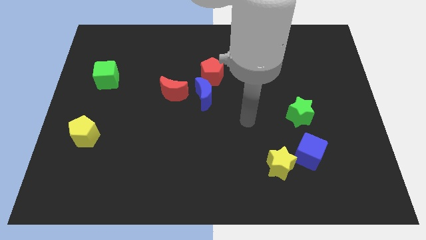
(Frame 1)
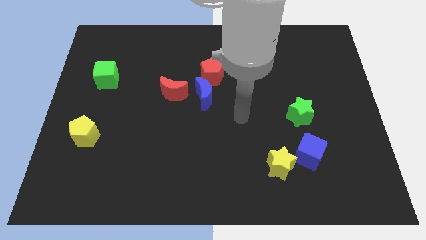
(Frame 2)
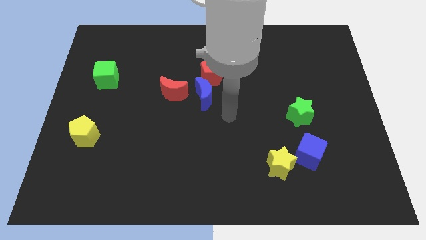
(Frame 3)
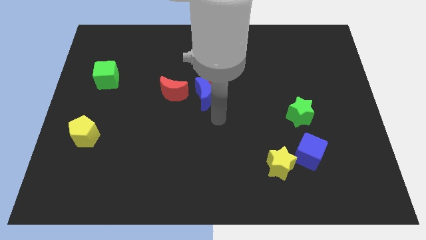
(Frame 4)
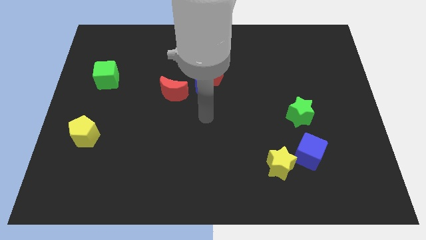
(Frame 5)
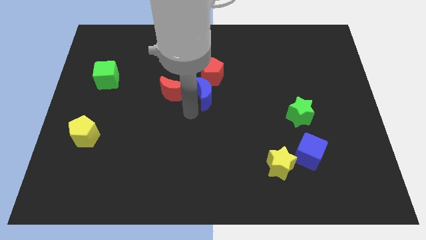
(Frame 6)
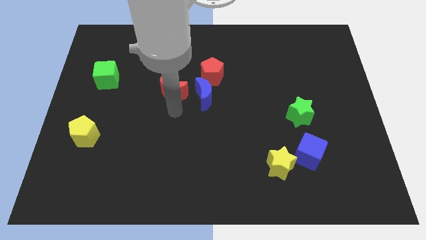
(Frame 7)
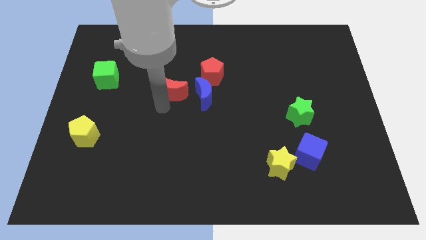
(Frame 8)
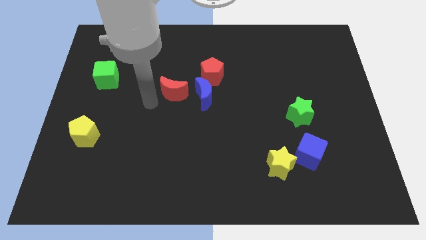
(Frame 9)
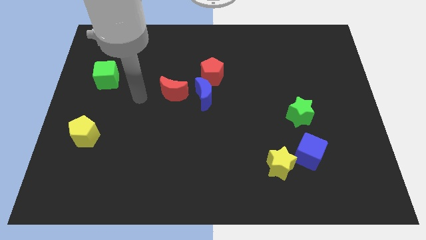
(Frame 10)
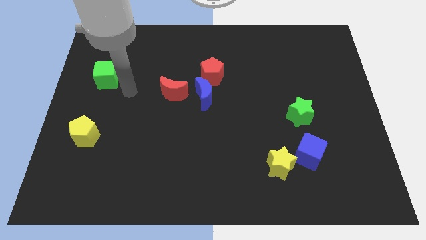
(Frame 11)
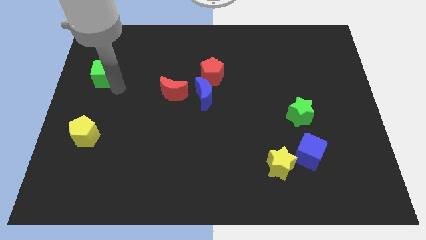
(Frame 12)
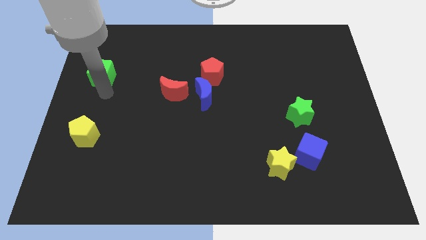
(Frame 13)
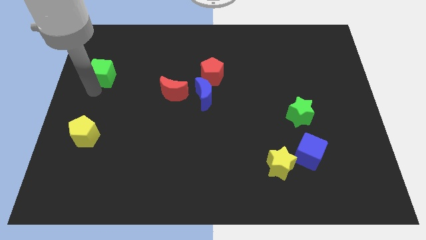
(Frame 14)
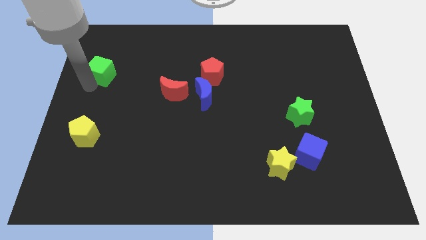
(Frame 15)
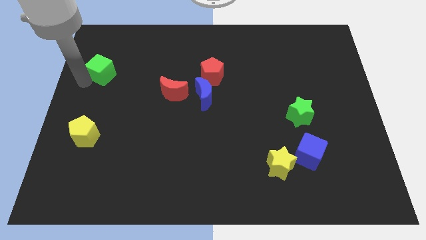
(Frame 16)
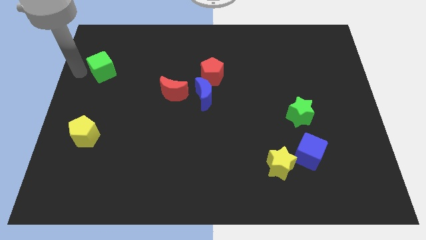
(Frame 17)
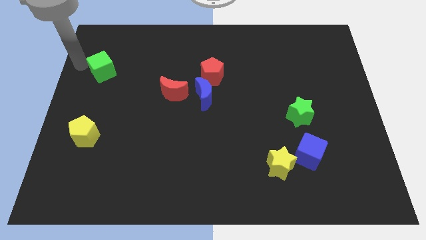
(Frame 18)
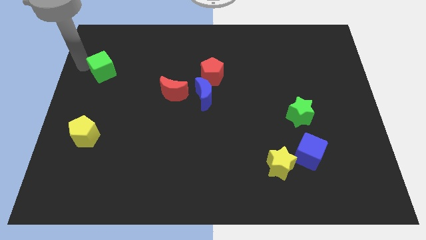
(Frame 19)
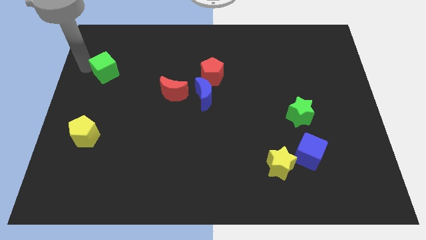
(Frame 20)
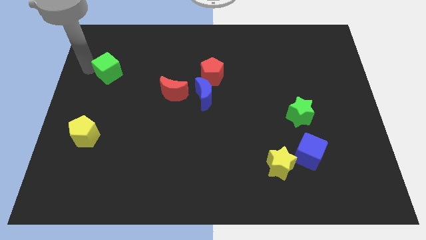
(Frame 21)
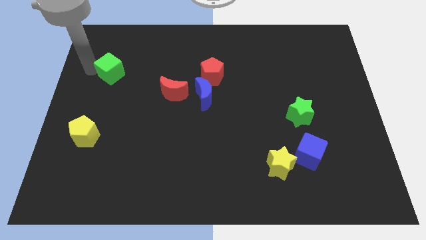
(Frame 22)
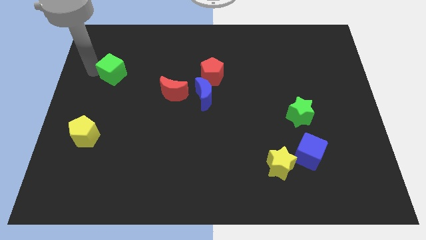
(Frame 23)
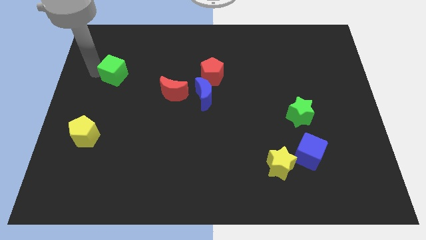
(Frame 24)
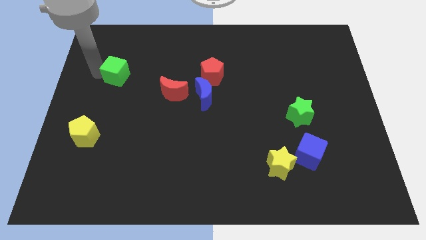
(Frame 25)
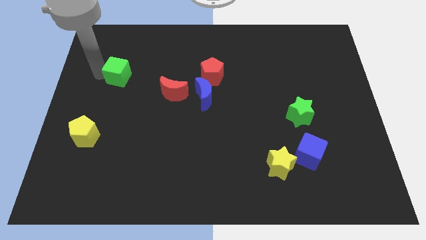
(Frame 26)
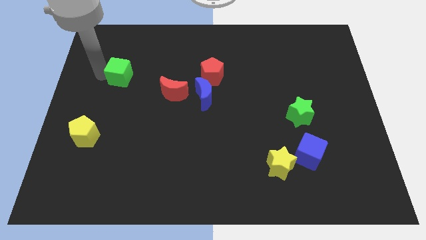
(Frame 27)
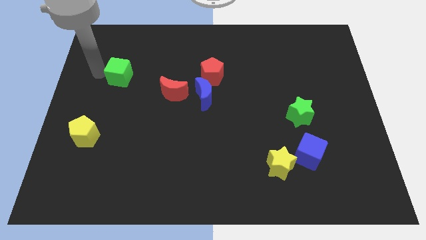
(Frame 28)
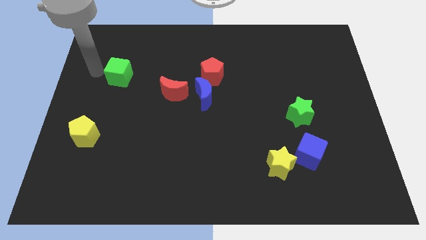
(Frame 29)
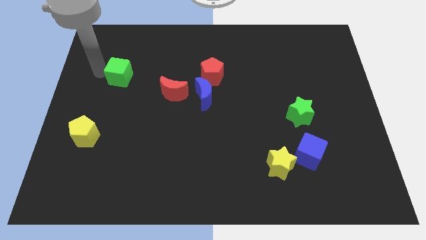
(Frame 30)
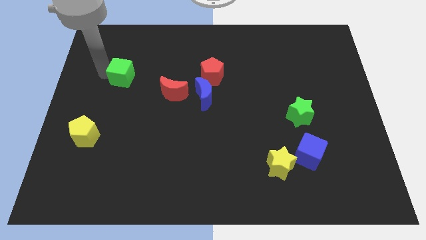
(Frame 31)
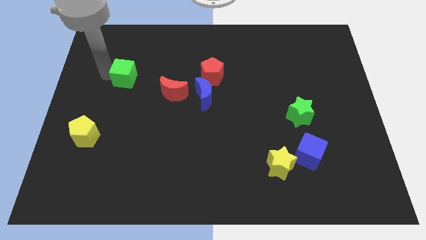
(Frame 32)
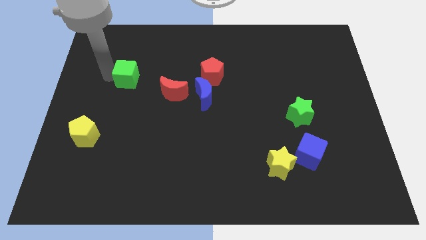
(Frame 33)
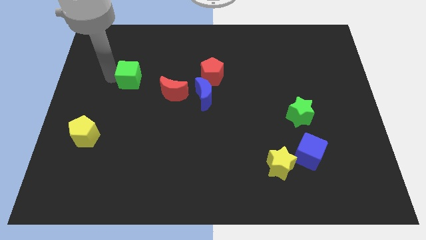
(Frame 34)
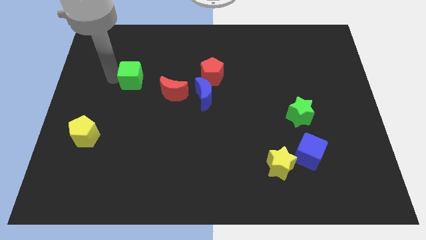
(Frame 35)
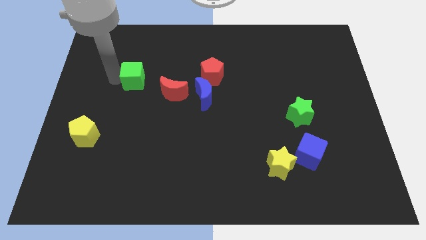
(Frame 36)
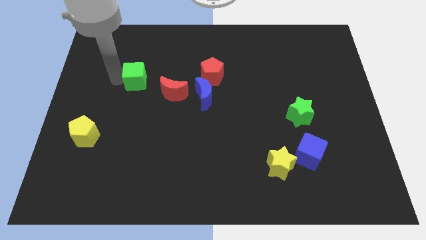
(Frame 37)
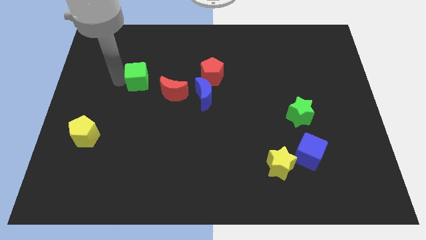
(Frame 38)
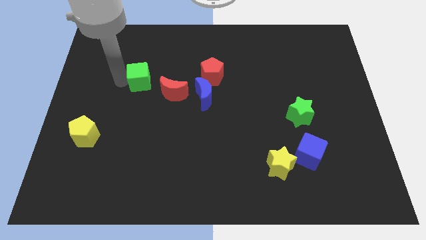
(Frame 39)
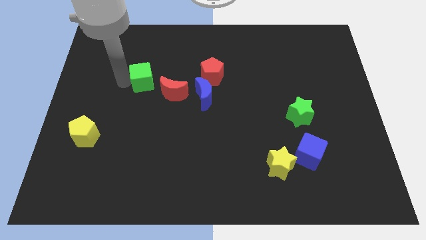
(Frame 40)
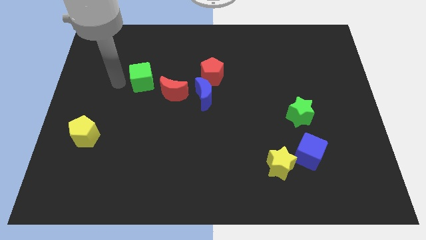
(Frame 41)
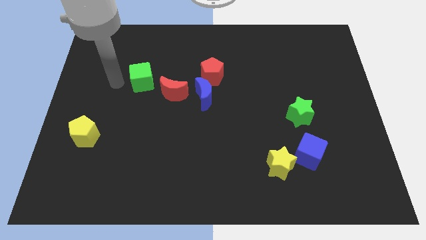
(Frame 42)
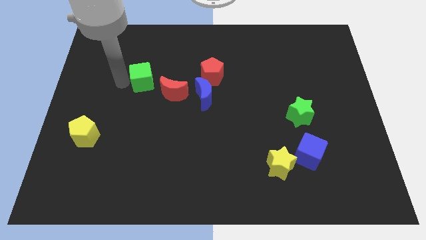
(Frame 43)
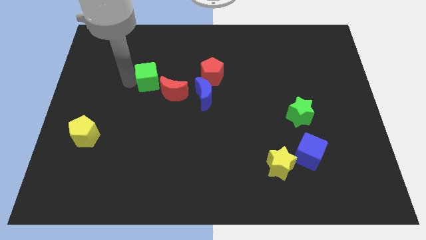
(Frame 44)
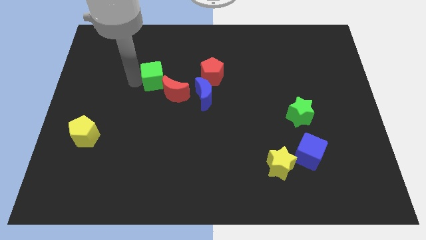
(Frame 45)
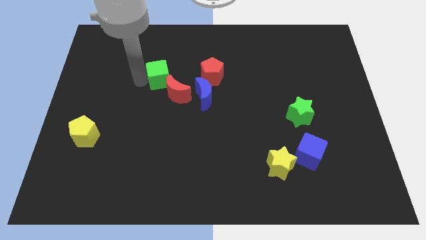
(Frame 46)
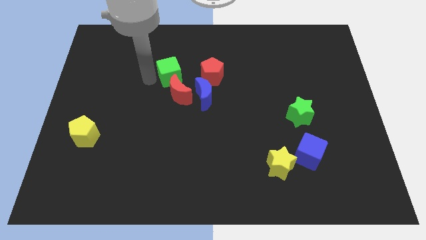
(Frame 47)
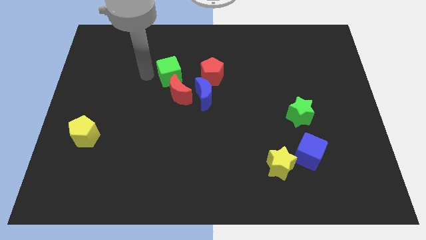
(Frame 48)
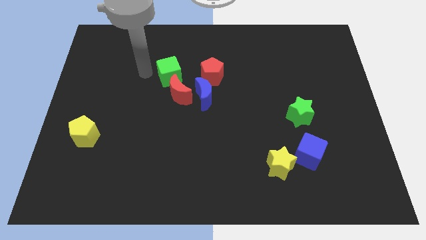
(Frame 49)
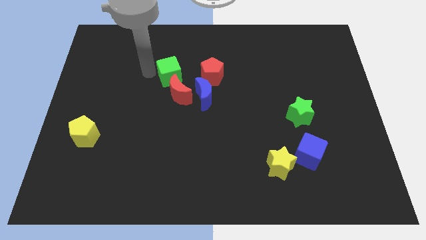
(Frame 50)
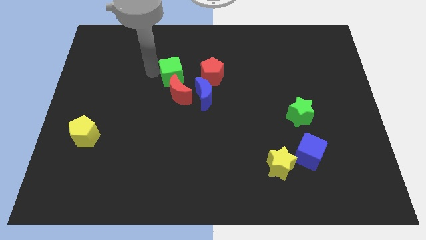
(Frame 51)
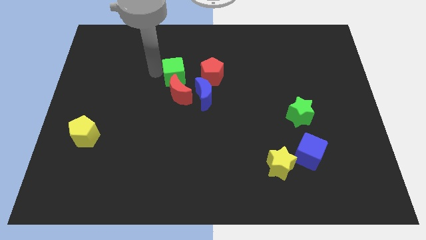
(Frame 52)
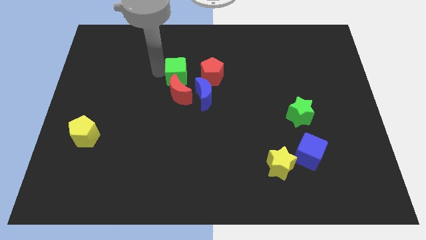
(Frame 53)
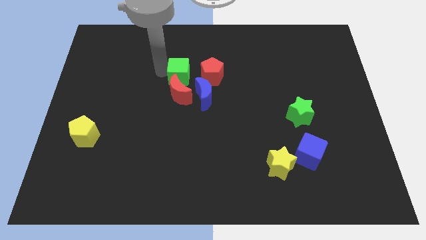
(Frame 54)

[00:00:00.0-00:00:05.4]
move the green cube diagonally up and to the right of the red moon
